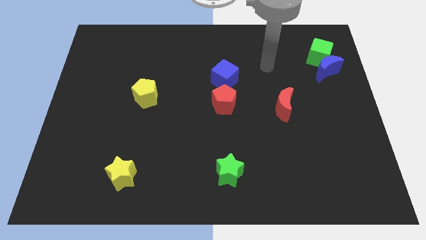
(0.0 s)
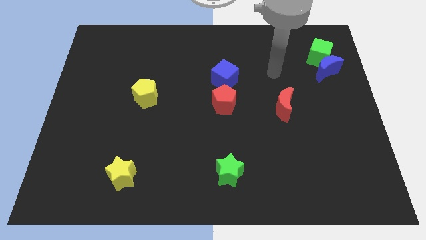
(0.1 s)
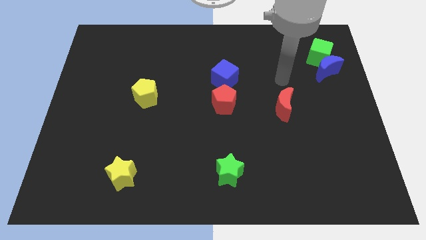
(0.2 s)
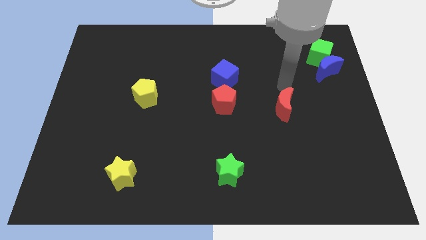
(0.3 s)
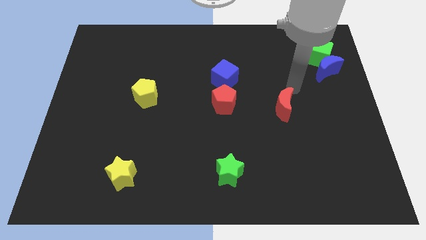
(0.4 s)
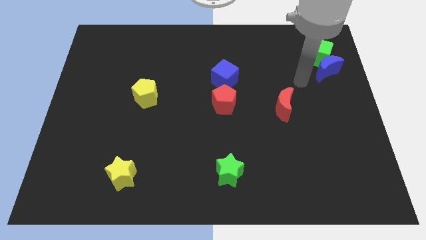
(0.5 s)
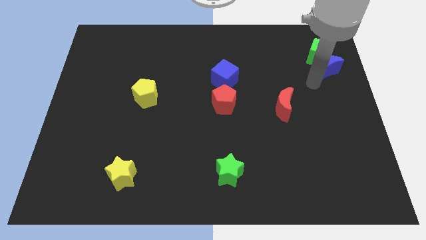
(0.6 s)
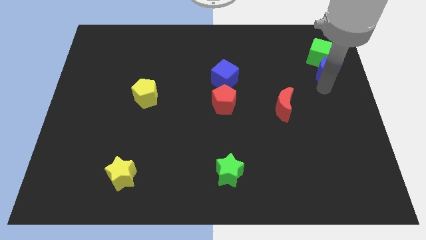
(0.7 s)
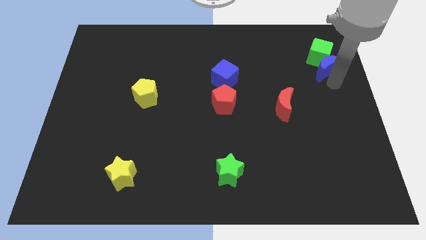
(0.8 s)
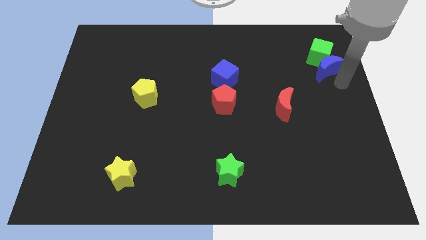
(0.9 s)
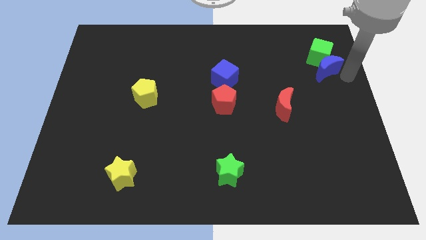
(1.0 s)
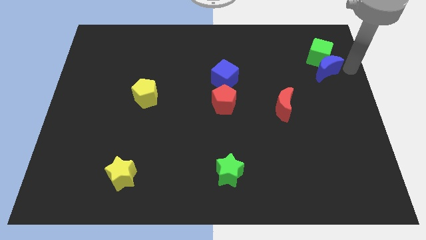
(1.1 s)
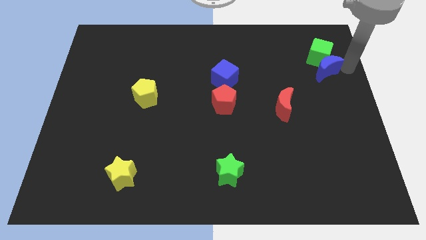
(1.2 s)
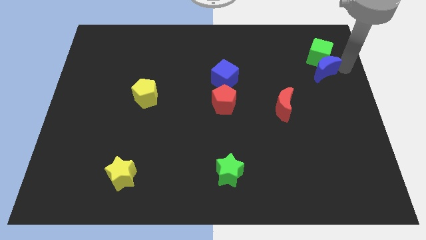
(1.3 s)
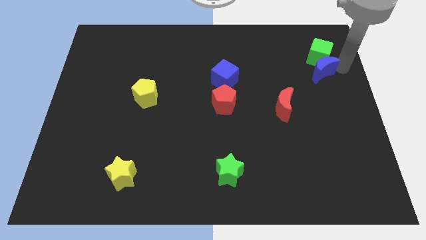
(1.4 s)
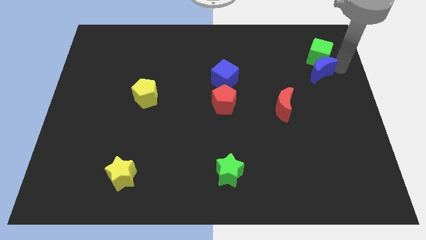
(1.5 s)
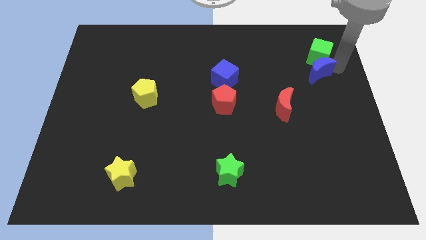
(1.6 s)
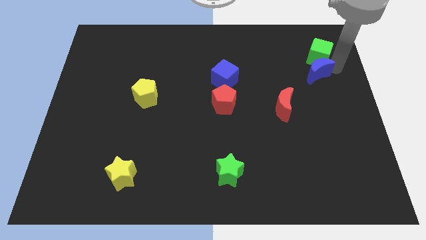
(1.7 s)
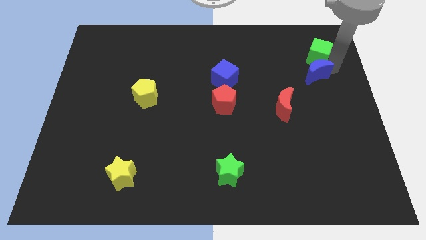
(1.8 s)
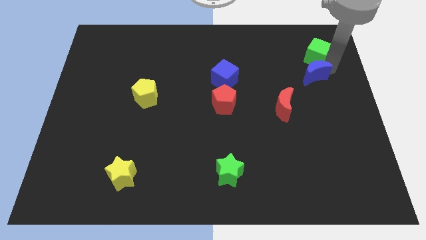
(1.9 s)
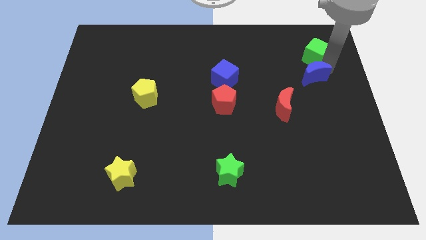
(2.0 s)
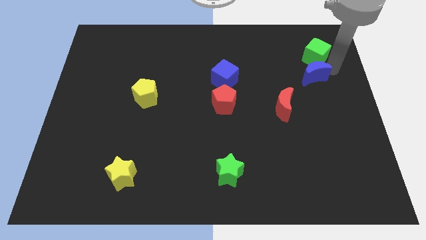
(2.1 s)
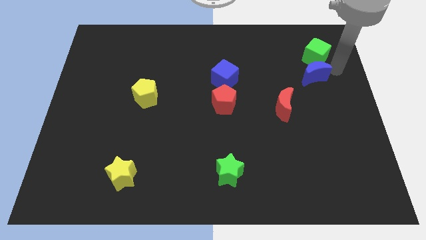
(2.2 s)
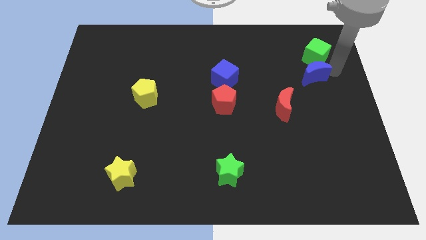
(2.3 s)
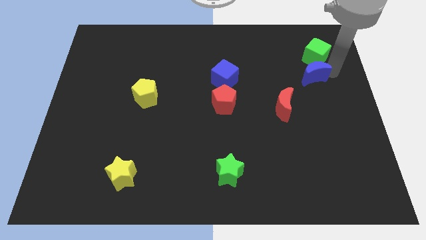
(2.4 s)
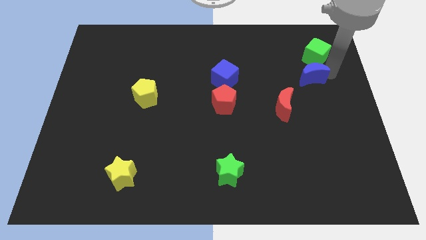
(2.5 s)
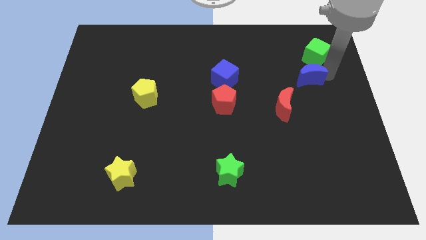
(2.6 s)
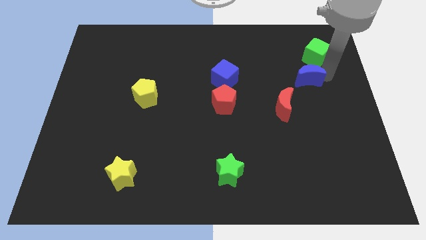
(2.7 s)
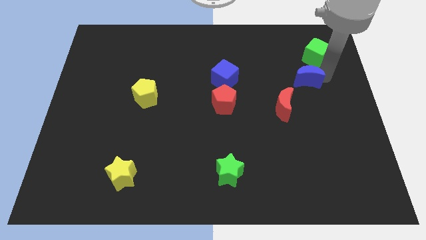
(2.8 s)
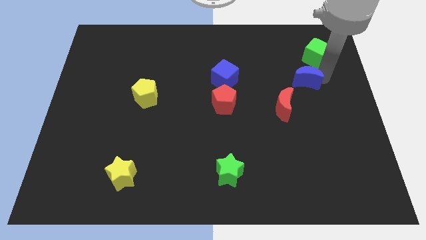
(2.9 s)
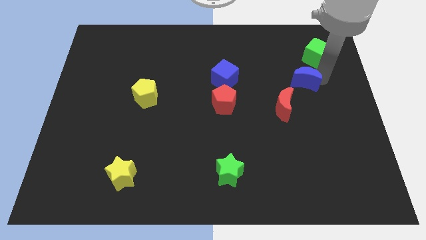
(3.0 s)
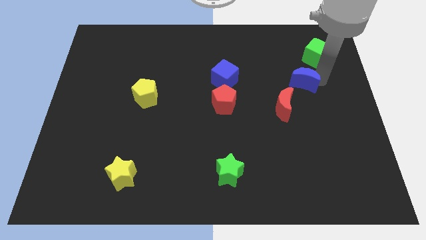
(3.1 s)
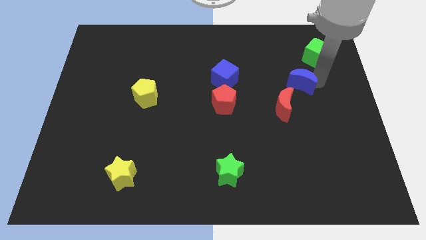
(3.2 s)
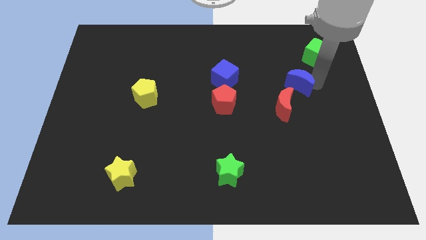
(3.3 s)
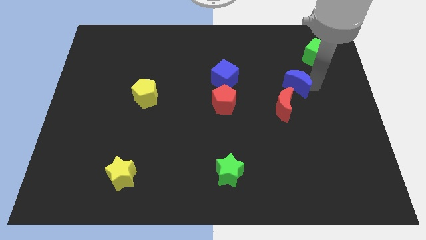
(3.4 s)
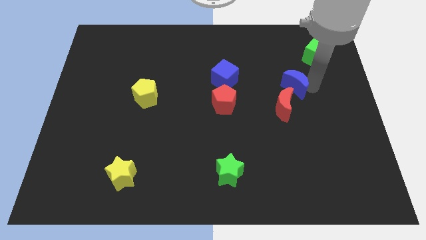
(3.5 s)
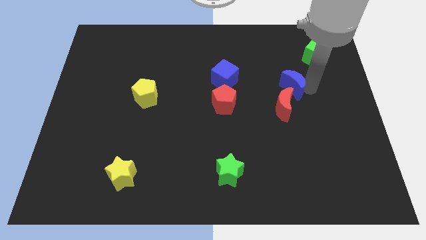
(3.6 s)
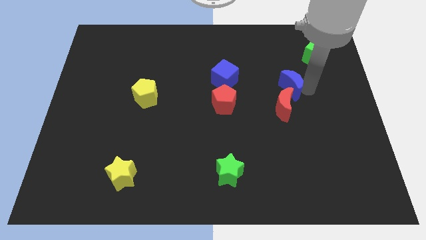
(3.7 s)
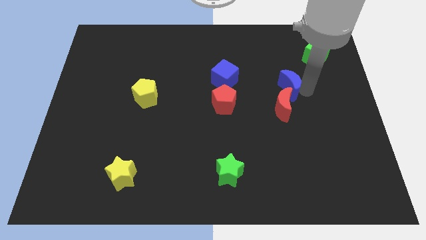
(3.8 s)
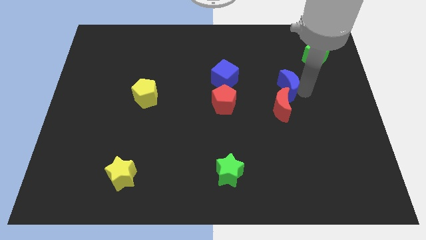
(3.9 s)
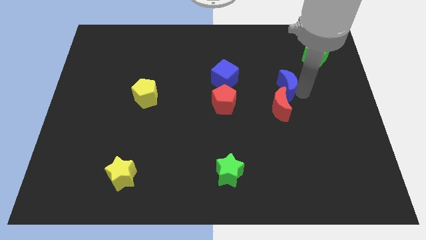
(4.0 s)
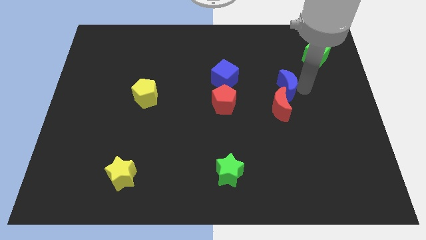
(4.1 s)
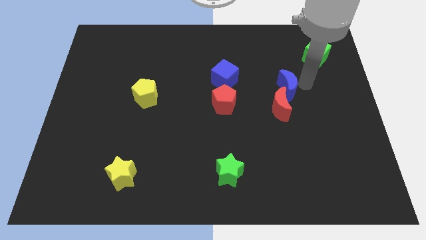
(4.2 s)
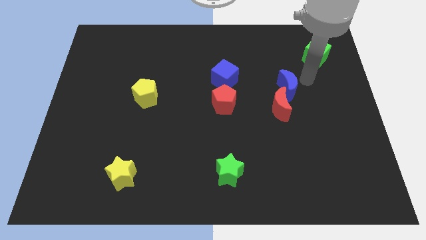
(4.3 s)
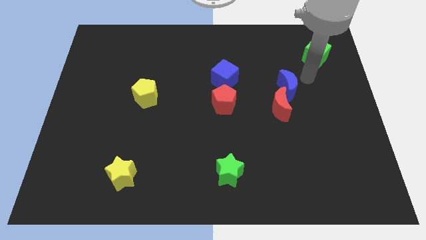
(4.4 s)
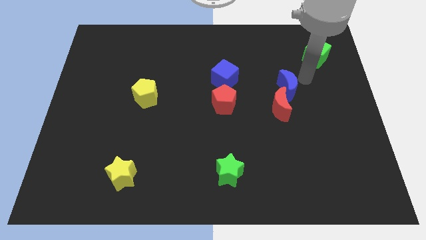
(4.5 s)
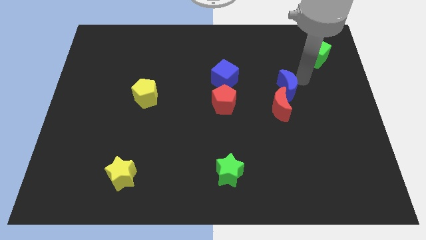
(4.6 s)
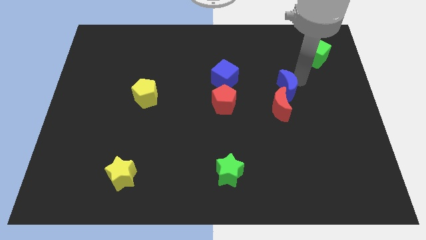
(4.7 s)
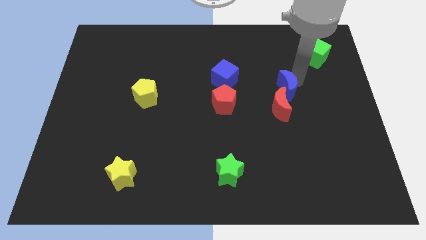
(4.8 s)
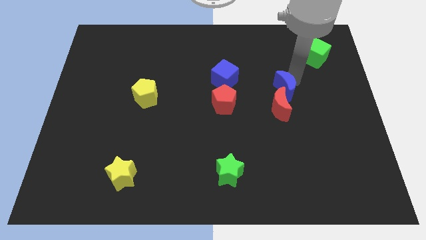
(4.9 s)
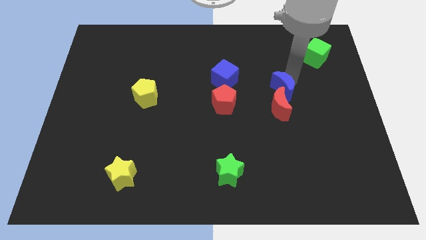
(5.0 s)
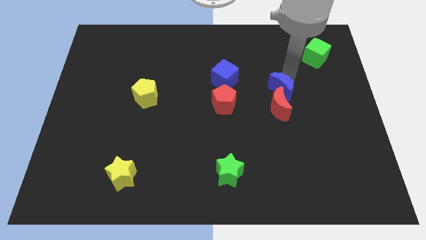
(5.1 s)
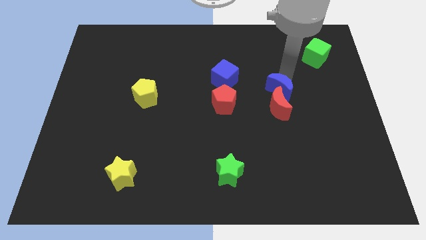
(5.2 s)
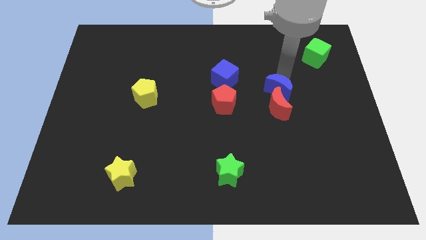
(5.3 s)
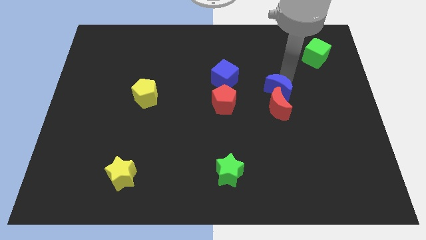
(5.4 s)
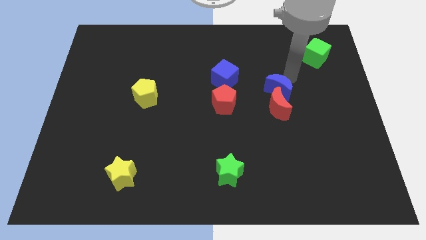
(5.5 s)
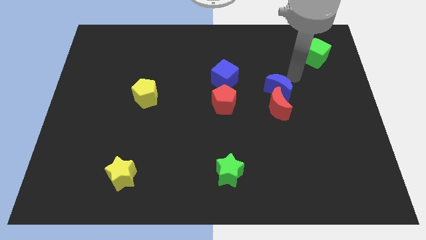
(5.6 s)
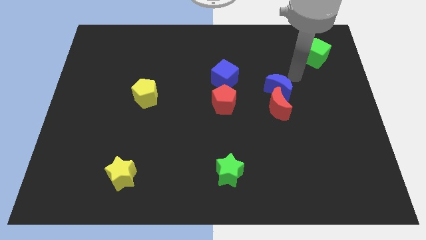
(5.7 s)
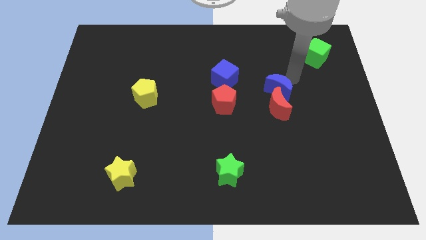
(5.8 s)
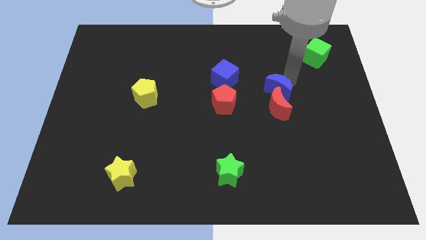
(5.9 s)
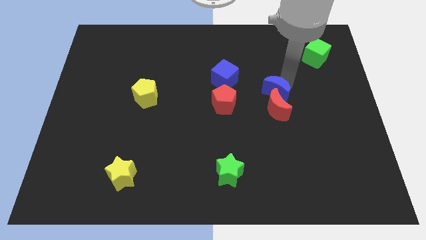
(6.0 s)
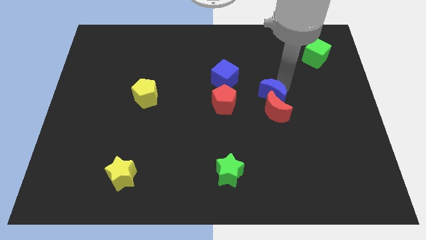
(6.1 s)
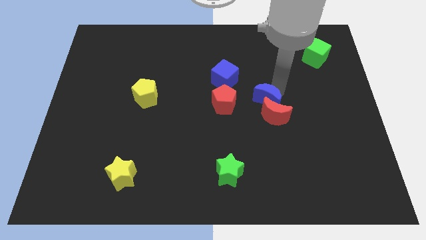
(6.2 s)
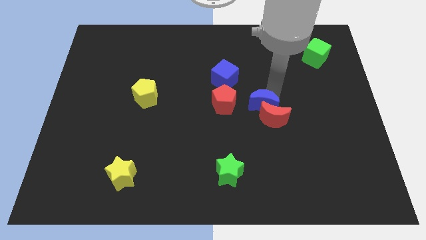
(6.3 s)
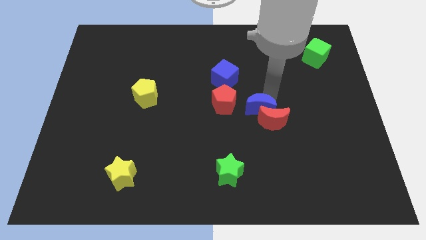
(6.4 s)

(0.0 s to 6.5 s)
slide the blue moon downwards and left

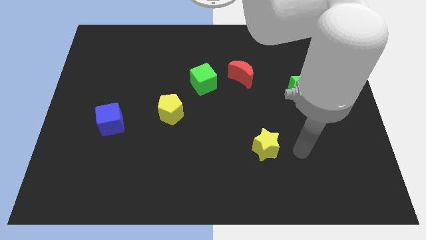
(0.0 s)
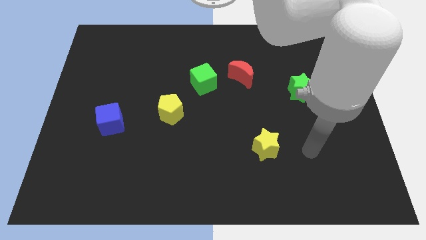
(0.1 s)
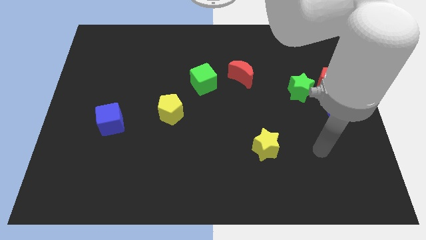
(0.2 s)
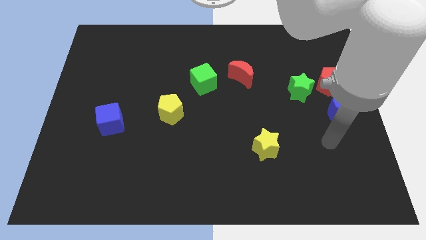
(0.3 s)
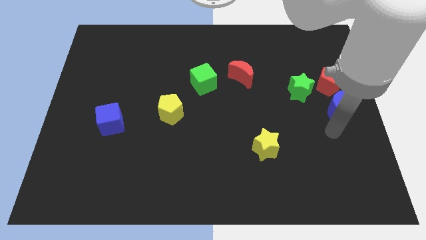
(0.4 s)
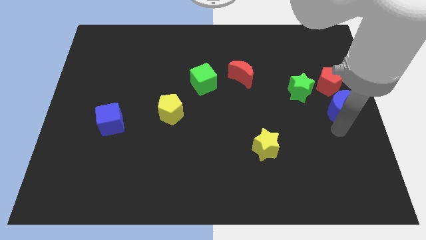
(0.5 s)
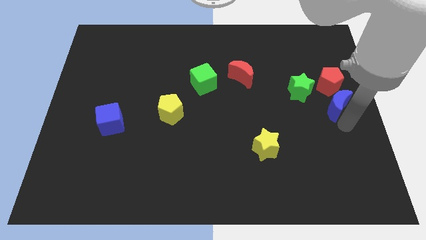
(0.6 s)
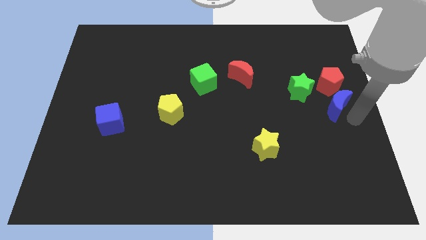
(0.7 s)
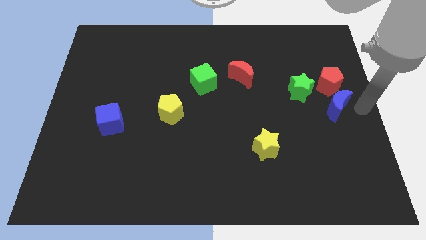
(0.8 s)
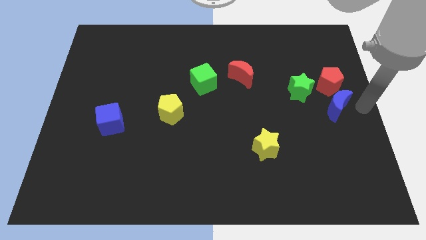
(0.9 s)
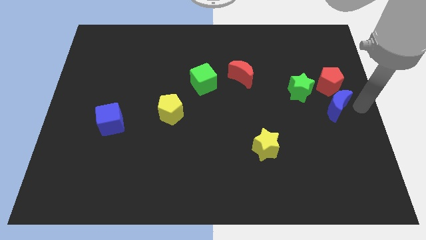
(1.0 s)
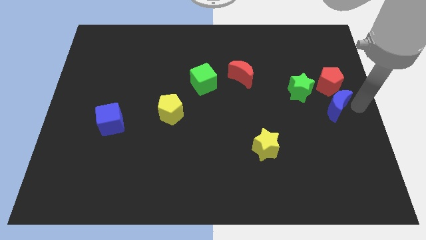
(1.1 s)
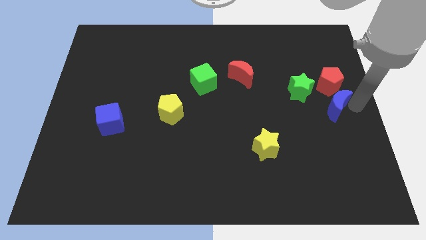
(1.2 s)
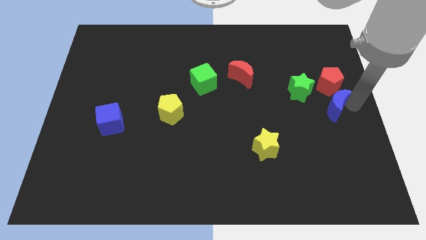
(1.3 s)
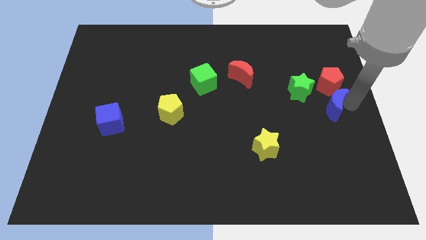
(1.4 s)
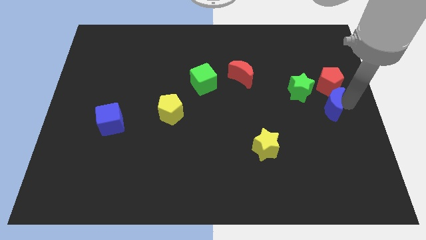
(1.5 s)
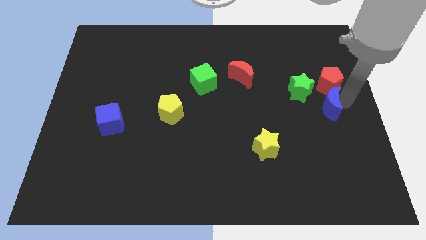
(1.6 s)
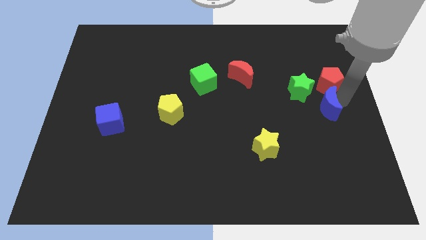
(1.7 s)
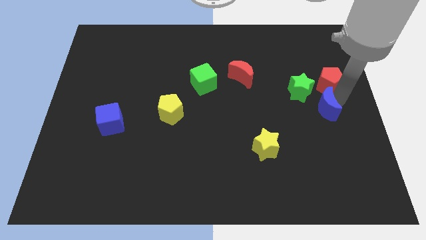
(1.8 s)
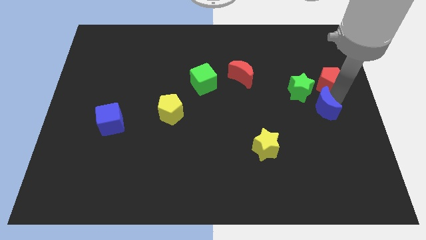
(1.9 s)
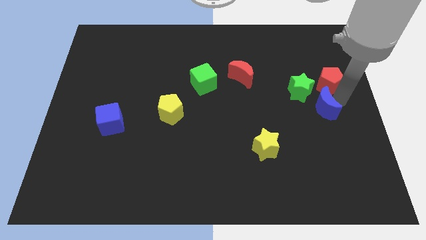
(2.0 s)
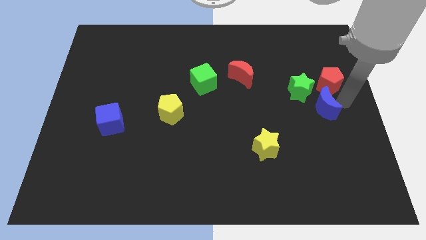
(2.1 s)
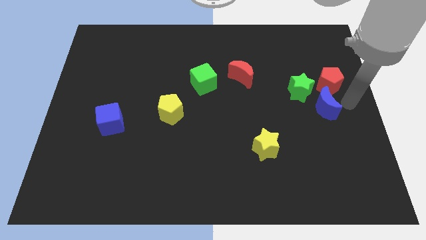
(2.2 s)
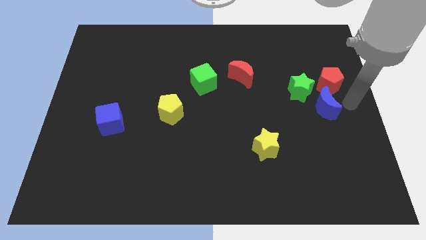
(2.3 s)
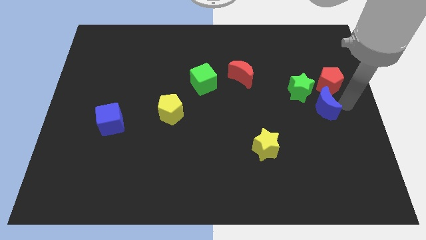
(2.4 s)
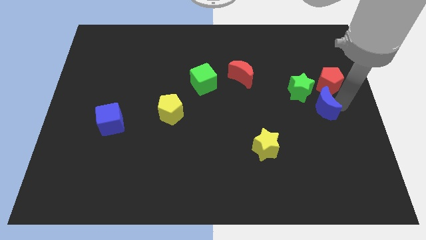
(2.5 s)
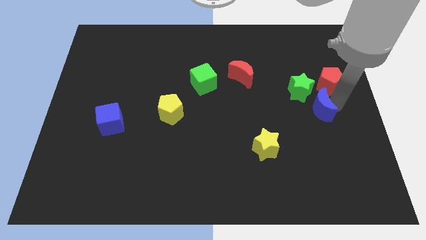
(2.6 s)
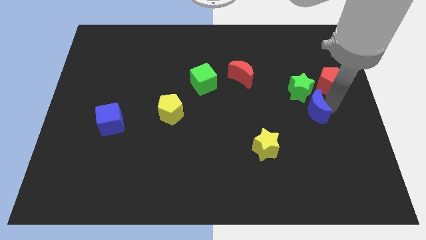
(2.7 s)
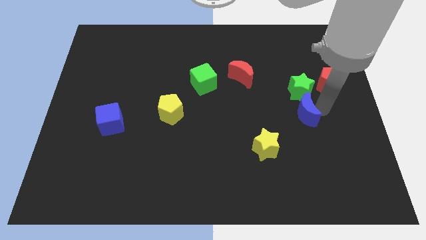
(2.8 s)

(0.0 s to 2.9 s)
push the blue moon a bit left
